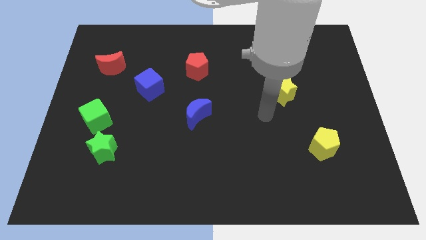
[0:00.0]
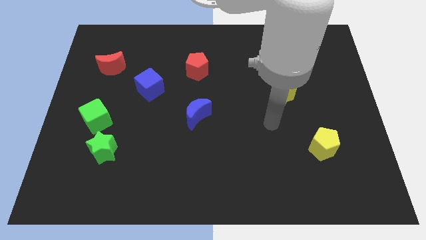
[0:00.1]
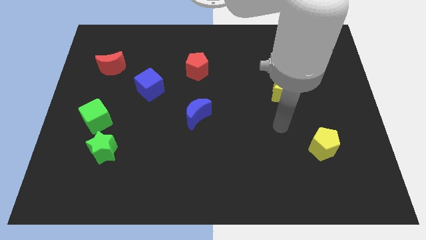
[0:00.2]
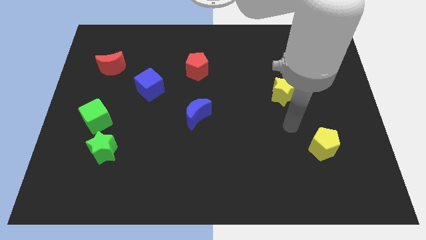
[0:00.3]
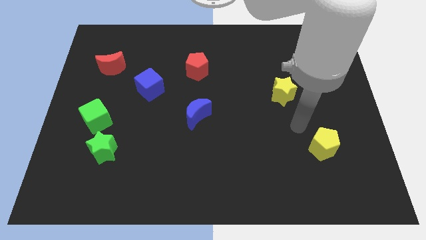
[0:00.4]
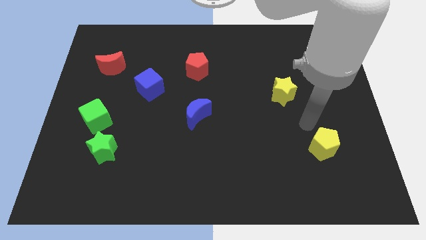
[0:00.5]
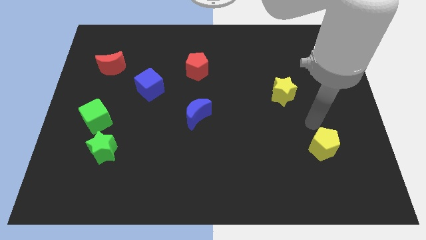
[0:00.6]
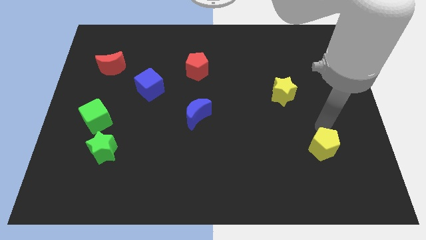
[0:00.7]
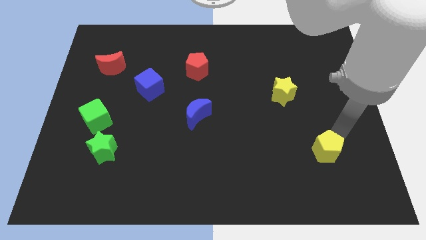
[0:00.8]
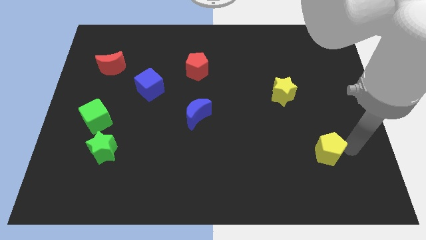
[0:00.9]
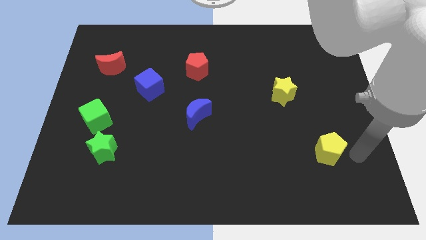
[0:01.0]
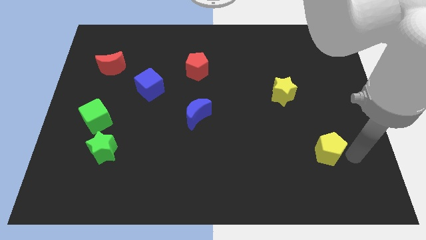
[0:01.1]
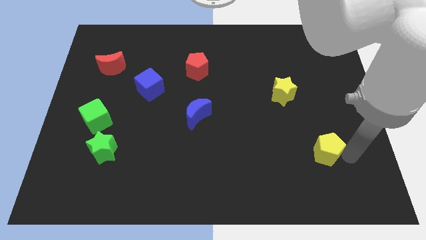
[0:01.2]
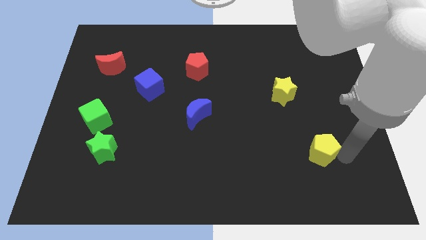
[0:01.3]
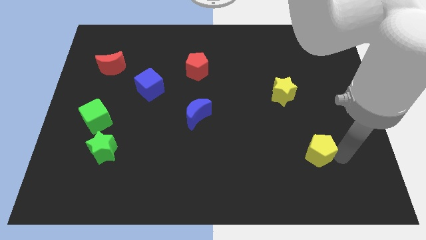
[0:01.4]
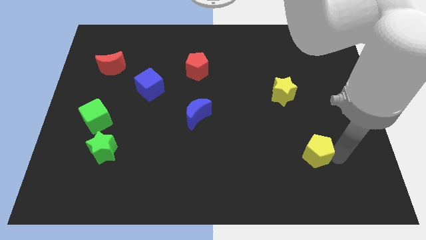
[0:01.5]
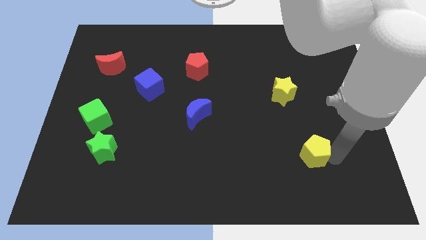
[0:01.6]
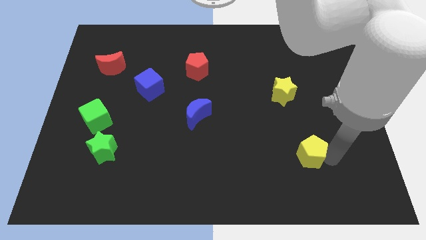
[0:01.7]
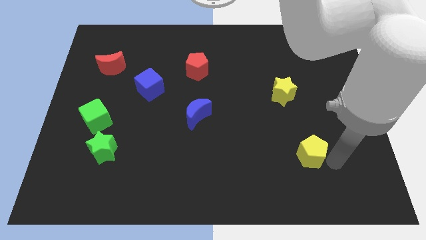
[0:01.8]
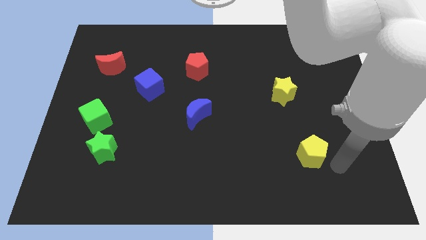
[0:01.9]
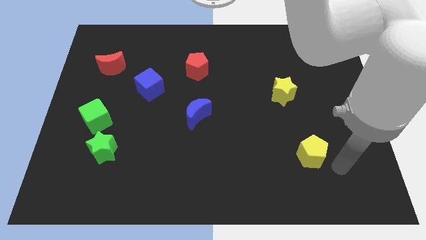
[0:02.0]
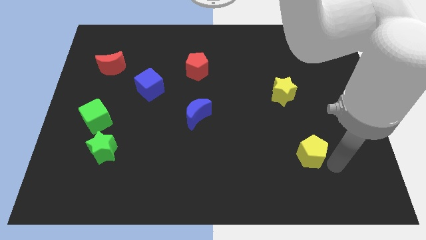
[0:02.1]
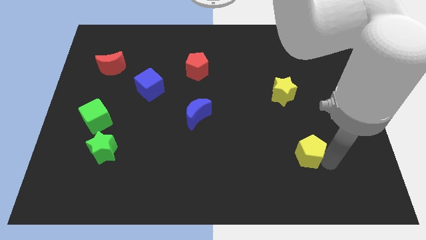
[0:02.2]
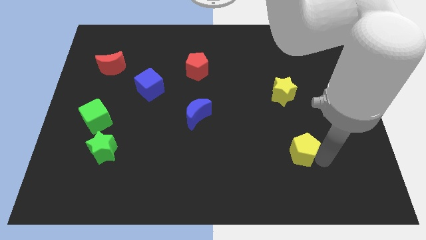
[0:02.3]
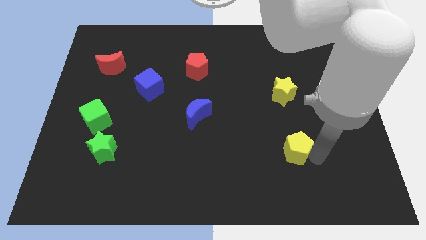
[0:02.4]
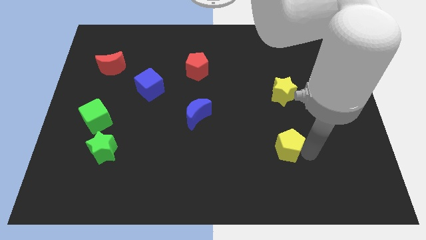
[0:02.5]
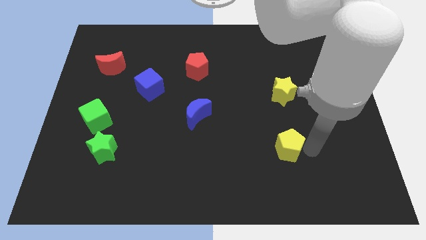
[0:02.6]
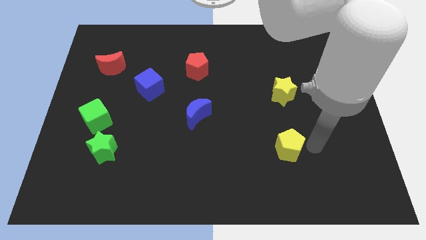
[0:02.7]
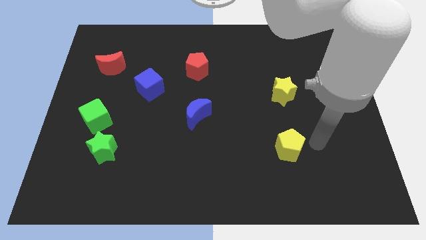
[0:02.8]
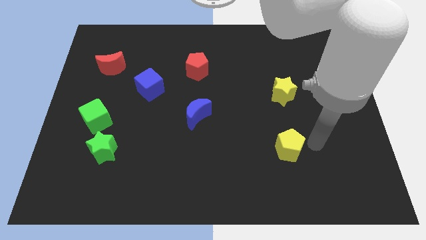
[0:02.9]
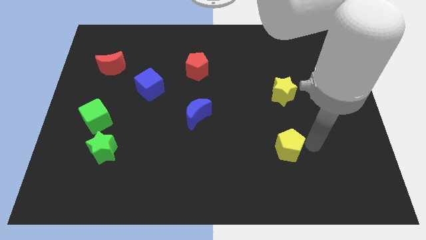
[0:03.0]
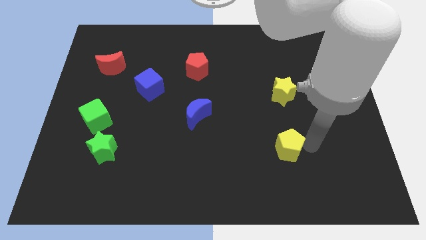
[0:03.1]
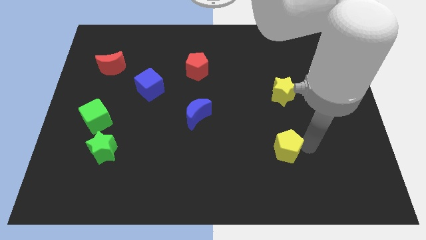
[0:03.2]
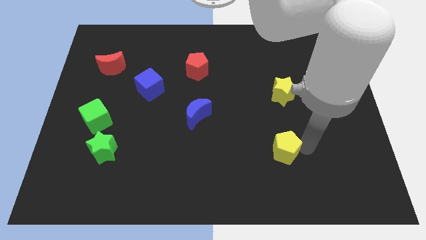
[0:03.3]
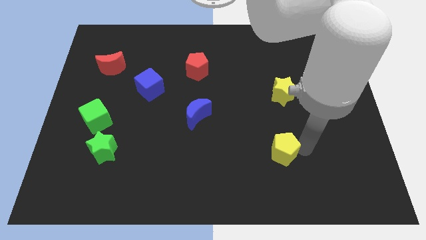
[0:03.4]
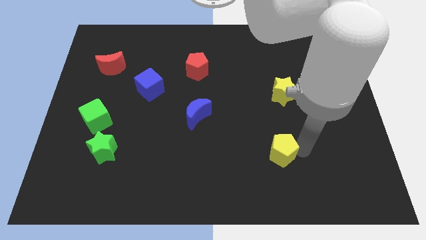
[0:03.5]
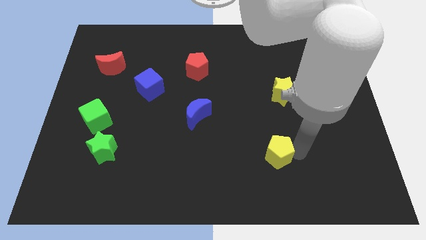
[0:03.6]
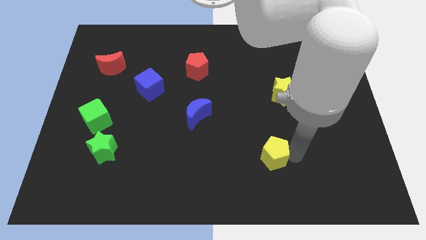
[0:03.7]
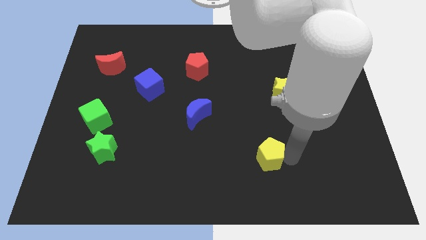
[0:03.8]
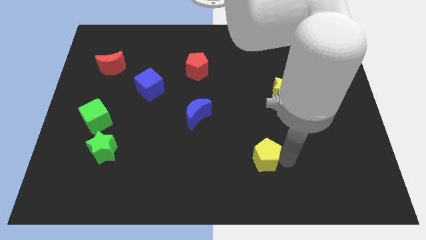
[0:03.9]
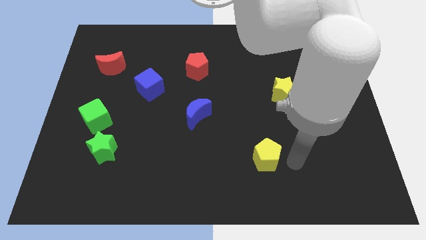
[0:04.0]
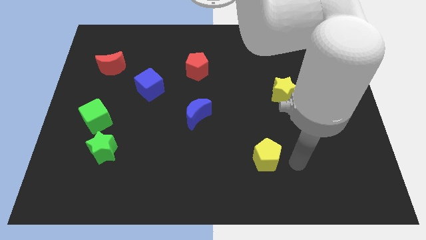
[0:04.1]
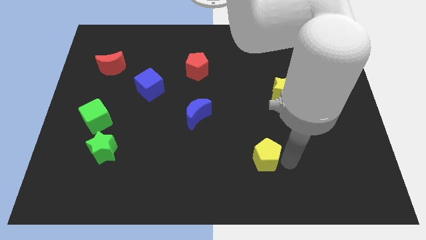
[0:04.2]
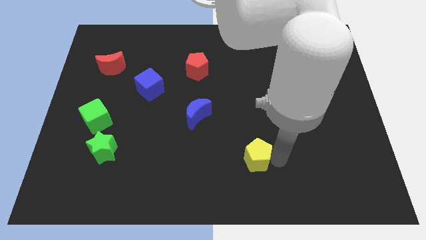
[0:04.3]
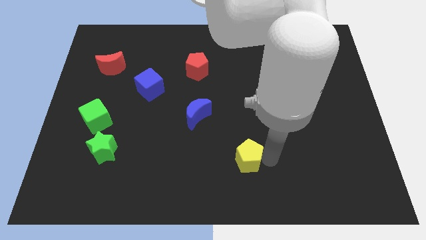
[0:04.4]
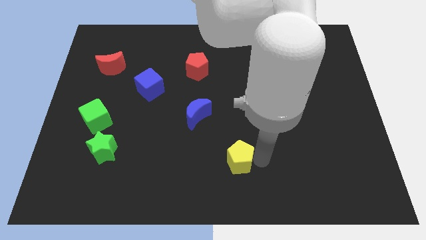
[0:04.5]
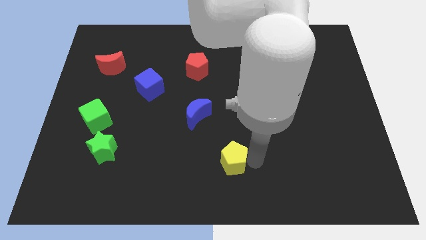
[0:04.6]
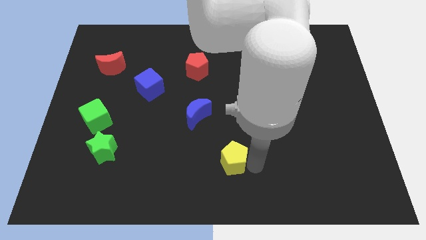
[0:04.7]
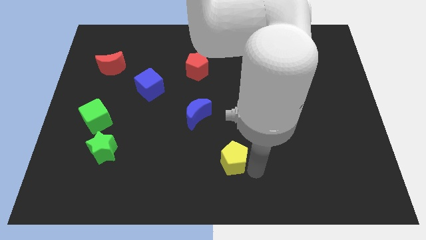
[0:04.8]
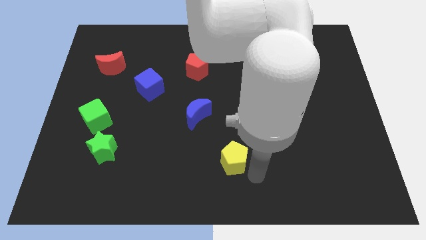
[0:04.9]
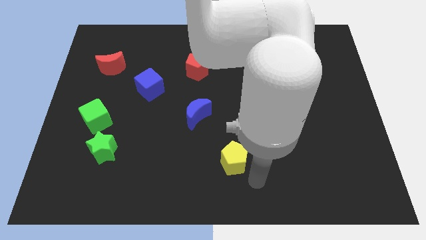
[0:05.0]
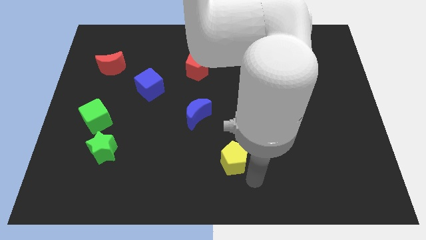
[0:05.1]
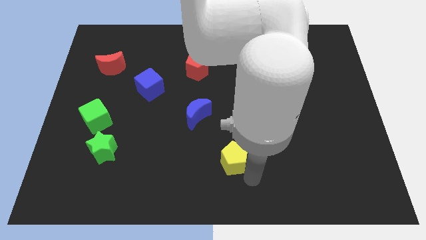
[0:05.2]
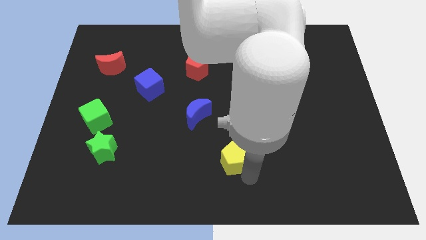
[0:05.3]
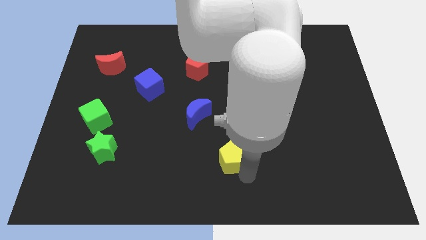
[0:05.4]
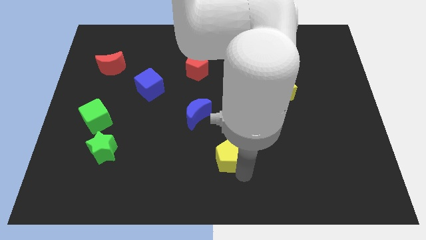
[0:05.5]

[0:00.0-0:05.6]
push the yellow pentagon to the left

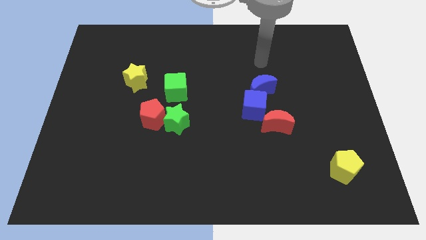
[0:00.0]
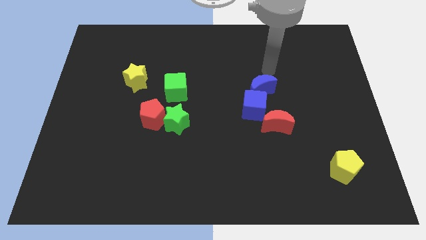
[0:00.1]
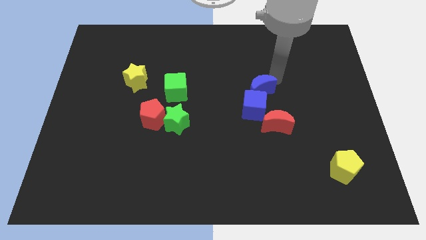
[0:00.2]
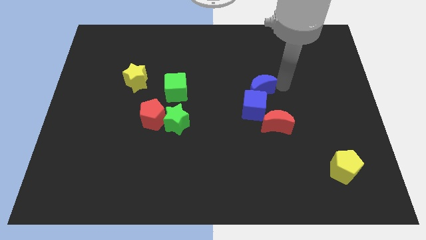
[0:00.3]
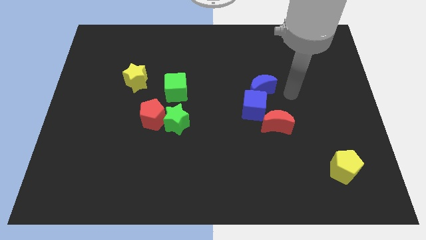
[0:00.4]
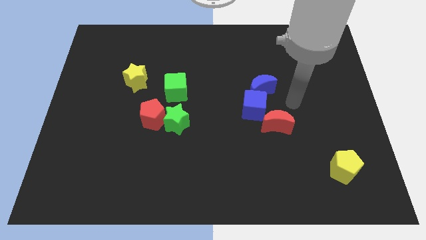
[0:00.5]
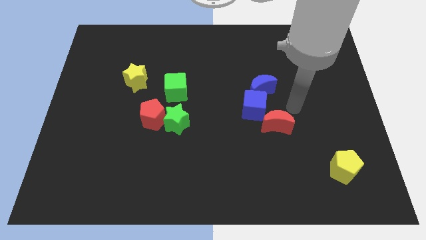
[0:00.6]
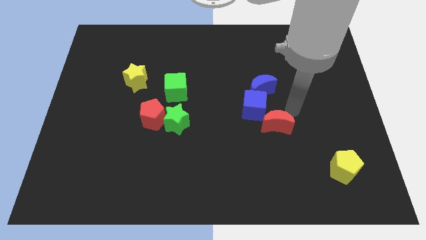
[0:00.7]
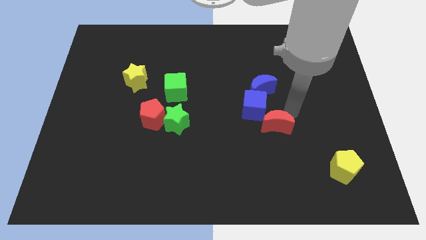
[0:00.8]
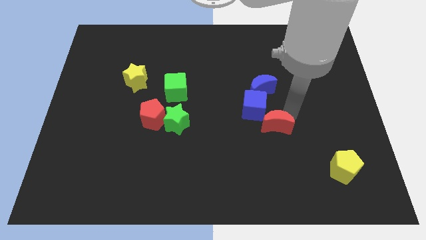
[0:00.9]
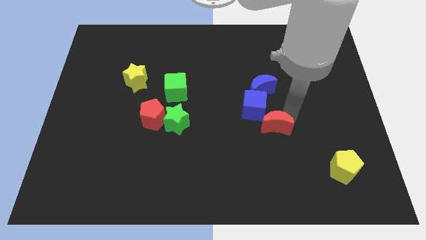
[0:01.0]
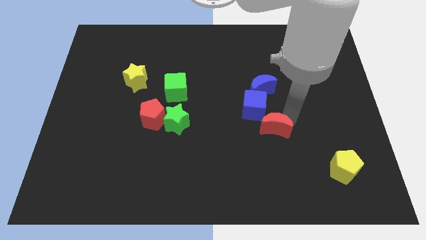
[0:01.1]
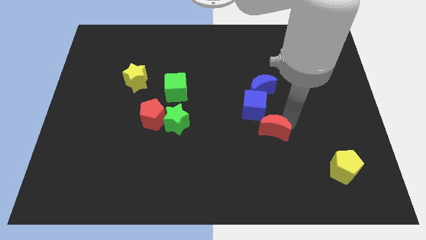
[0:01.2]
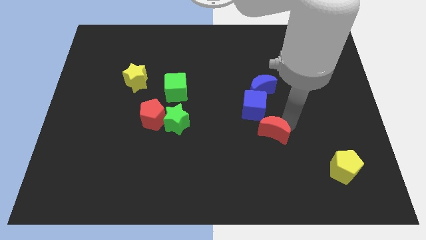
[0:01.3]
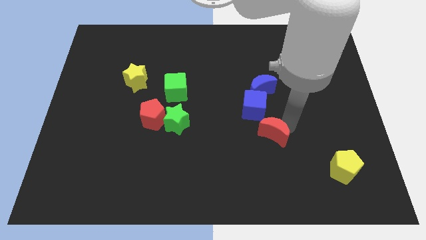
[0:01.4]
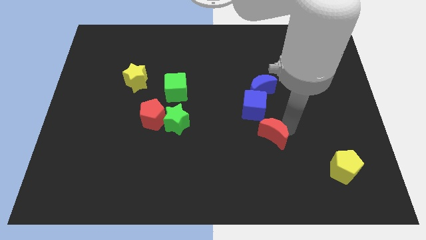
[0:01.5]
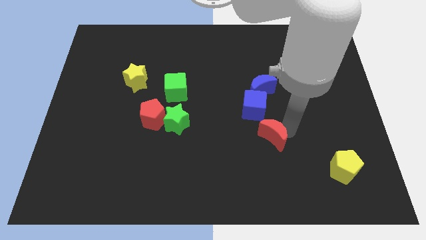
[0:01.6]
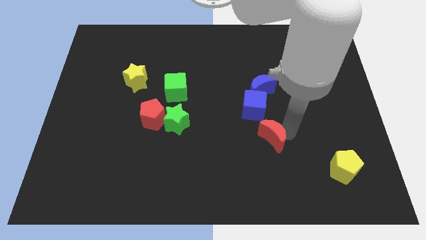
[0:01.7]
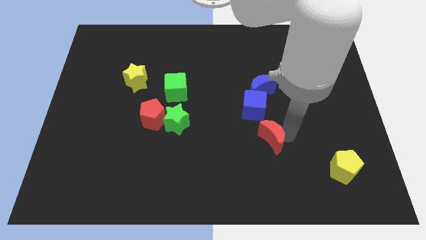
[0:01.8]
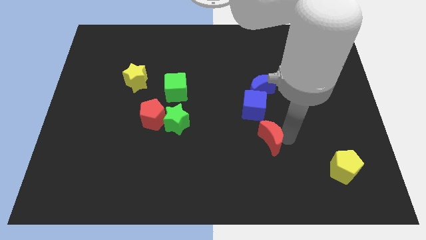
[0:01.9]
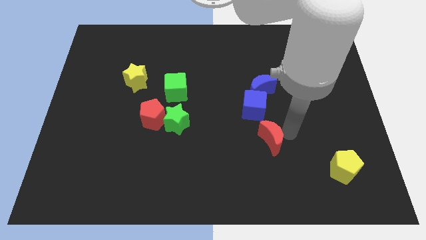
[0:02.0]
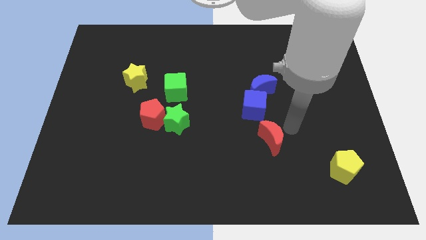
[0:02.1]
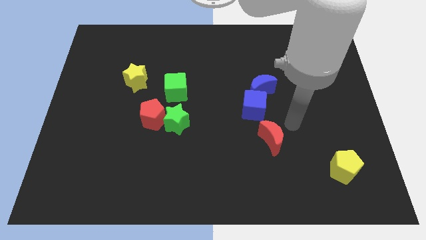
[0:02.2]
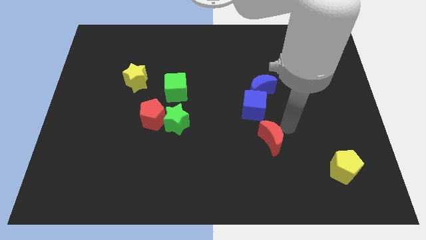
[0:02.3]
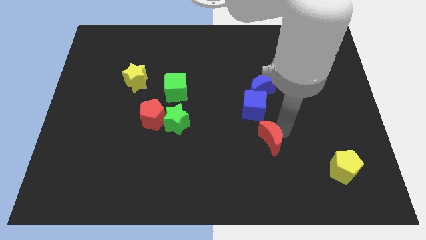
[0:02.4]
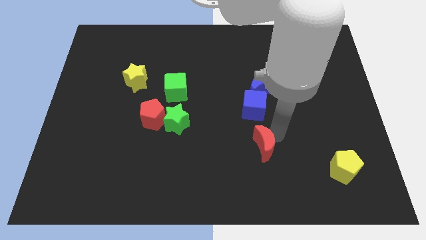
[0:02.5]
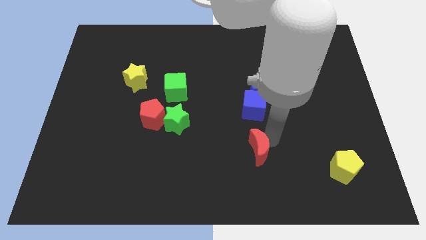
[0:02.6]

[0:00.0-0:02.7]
slightly move the red moon down and to the left diagonally
